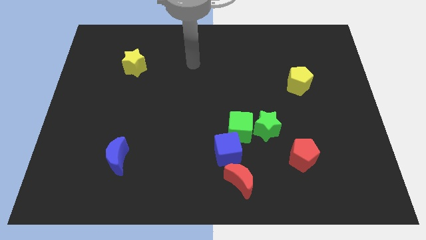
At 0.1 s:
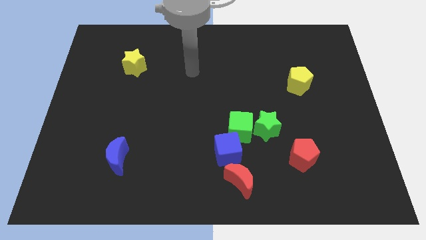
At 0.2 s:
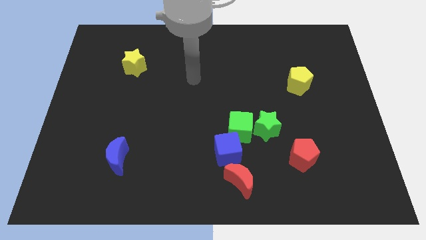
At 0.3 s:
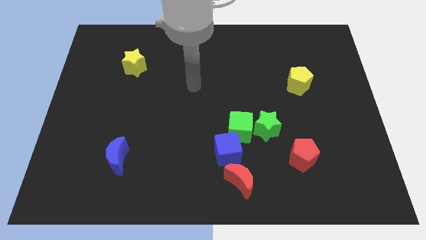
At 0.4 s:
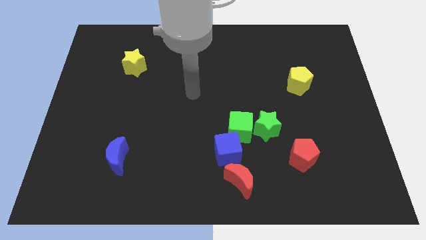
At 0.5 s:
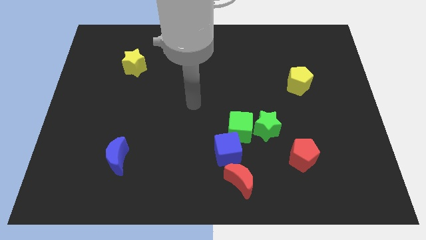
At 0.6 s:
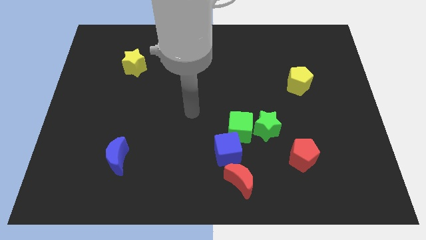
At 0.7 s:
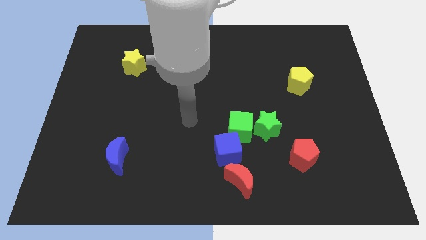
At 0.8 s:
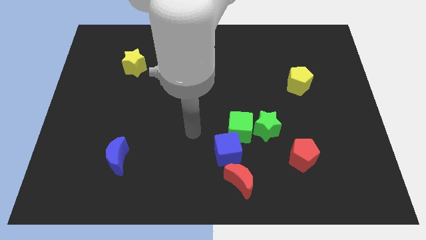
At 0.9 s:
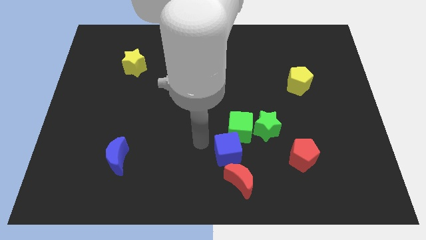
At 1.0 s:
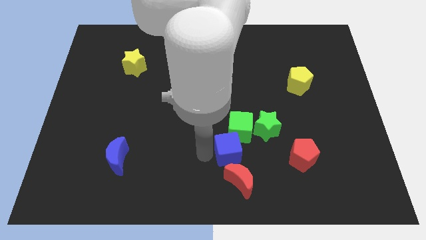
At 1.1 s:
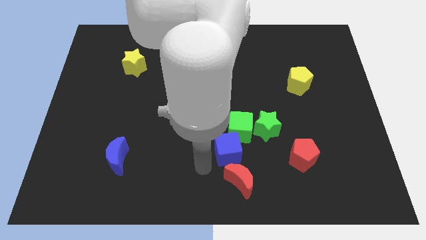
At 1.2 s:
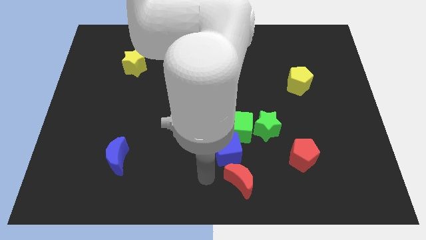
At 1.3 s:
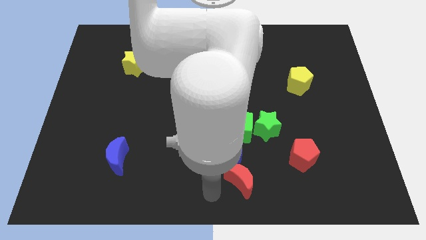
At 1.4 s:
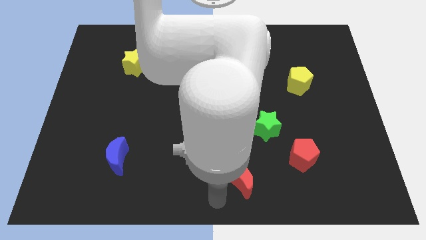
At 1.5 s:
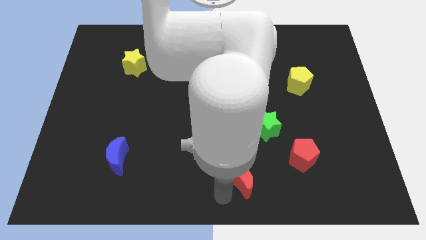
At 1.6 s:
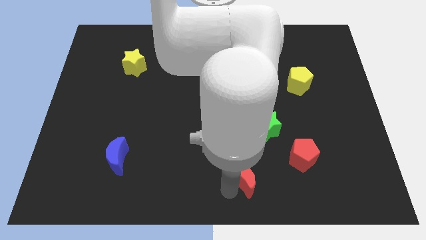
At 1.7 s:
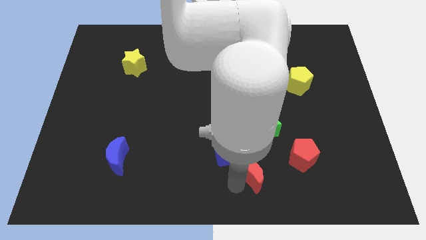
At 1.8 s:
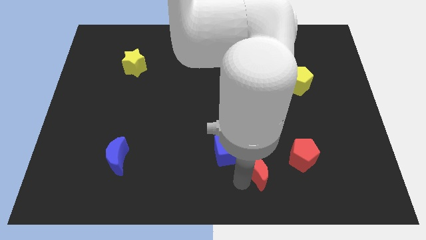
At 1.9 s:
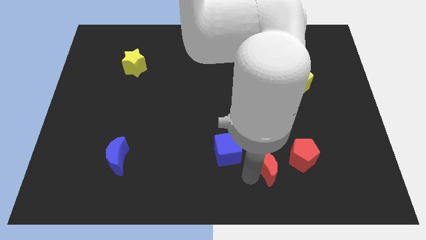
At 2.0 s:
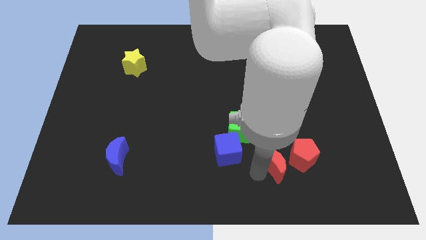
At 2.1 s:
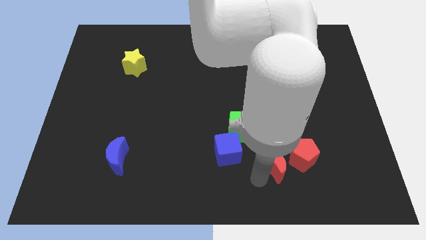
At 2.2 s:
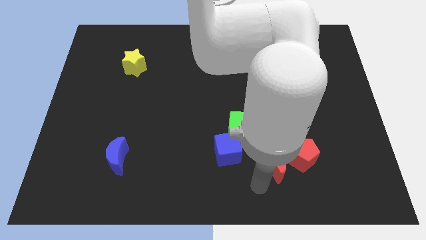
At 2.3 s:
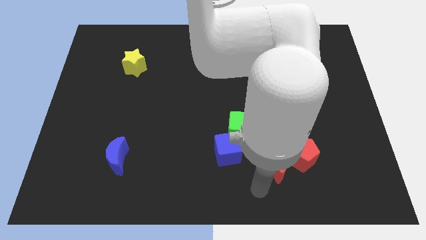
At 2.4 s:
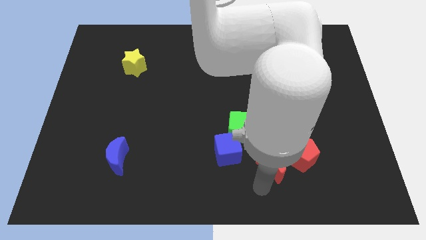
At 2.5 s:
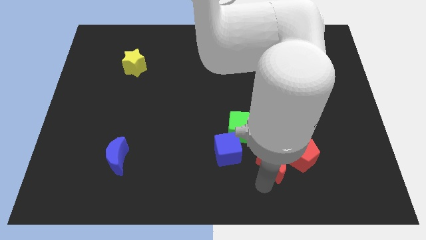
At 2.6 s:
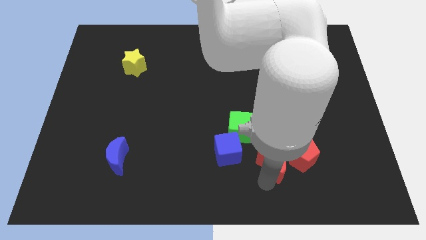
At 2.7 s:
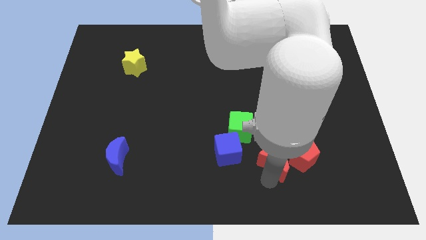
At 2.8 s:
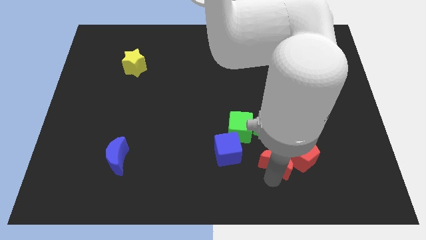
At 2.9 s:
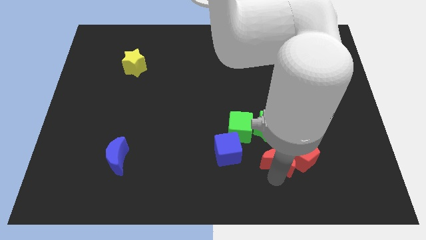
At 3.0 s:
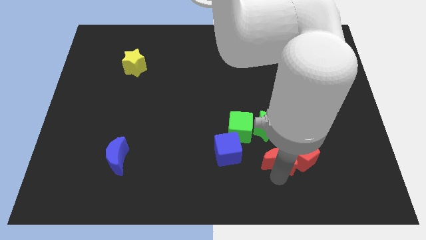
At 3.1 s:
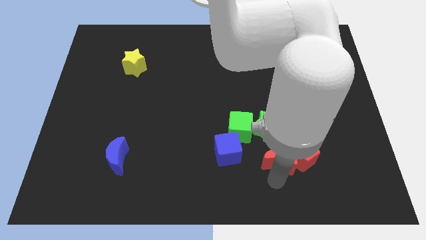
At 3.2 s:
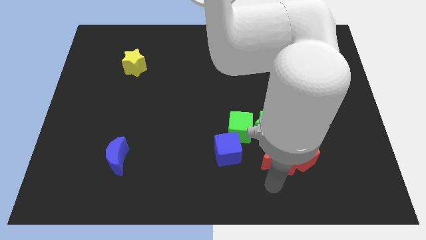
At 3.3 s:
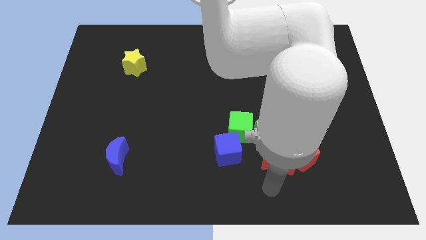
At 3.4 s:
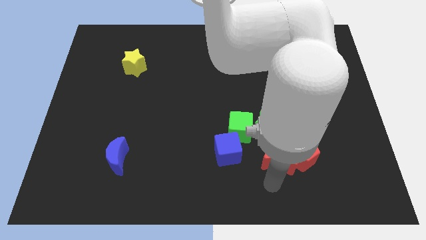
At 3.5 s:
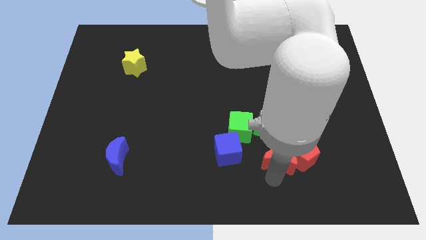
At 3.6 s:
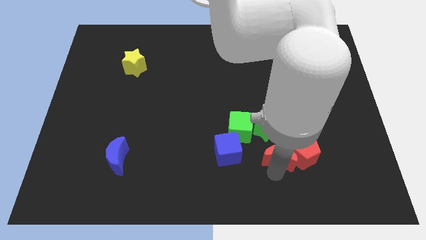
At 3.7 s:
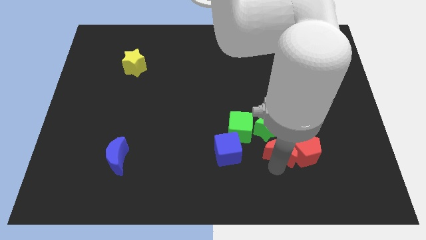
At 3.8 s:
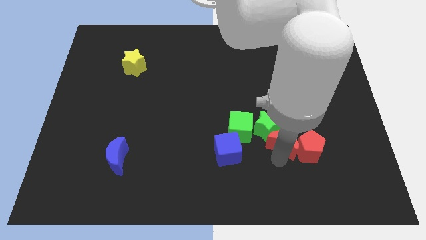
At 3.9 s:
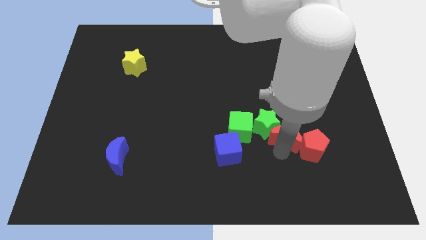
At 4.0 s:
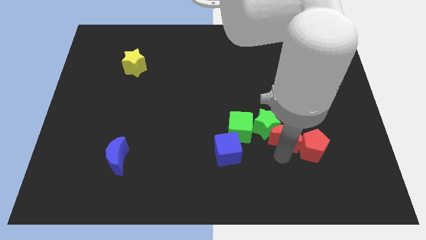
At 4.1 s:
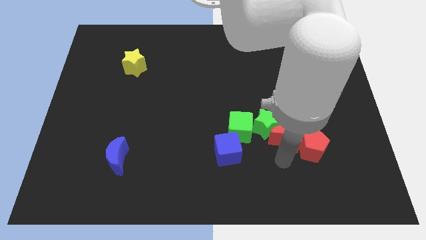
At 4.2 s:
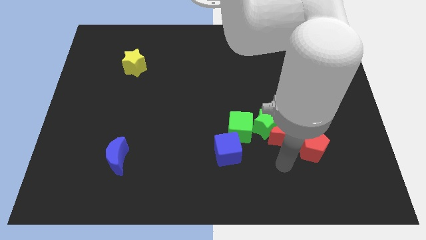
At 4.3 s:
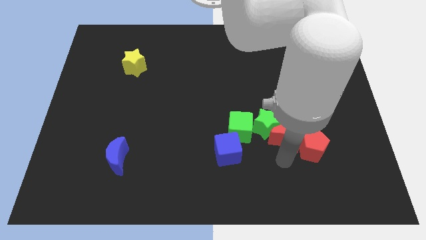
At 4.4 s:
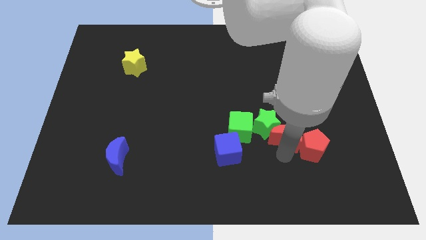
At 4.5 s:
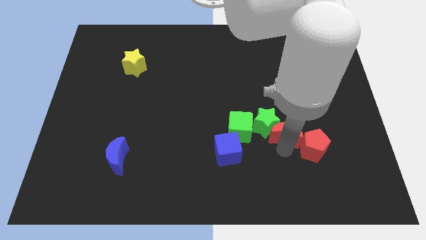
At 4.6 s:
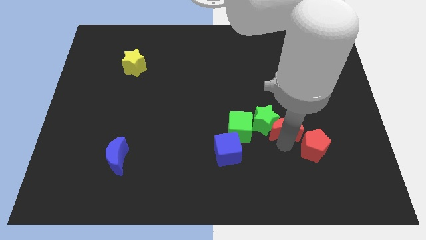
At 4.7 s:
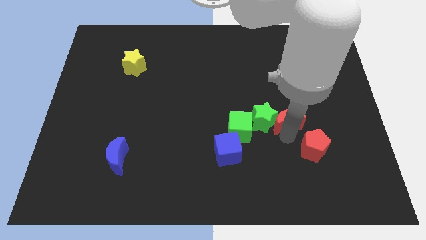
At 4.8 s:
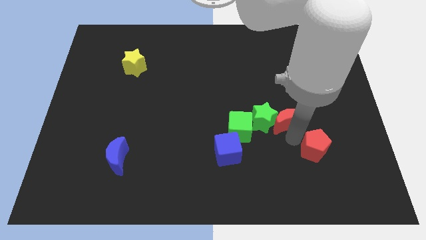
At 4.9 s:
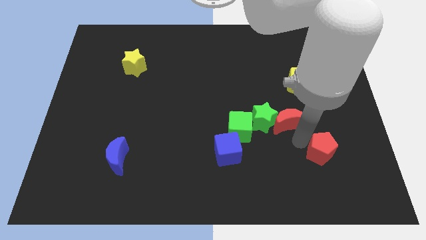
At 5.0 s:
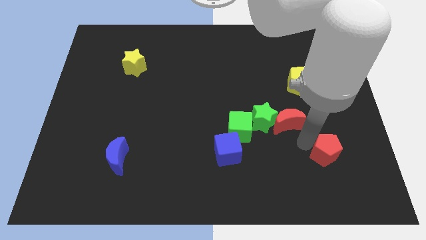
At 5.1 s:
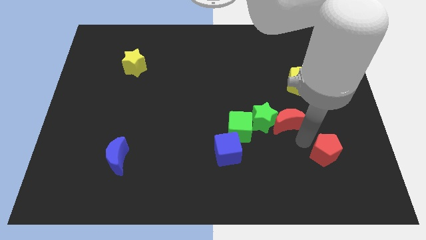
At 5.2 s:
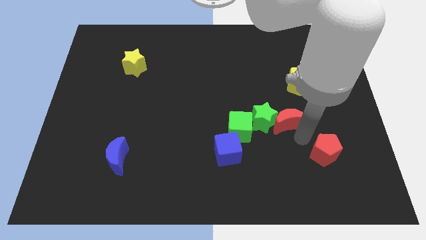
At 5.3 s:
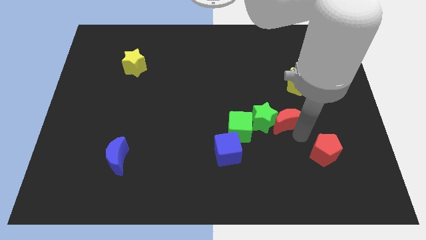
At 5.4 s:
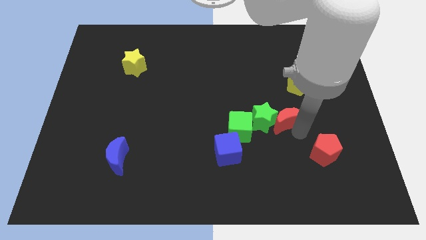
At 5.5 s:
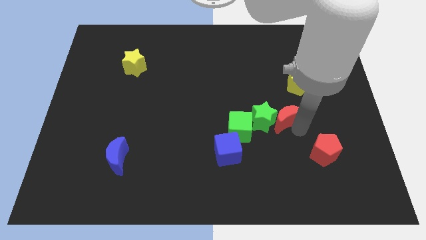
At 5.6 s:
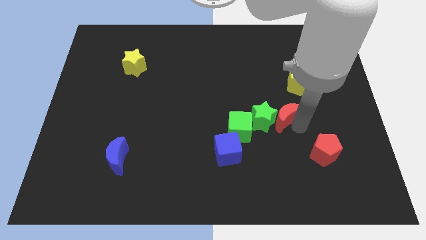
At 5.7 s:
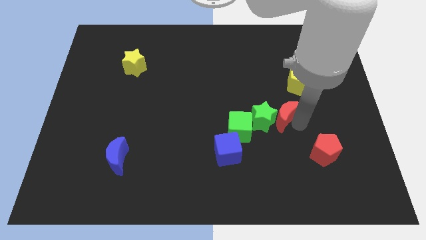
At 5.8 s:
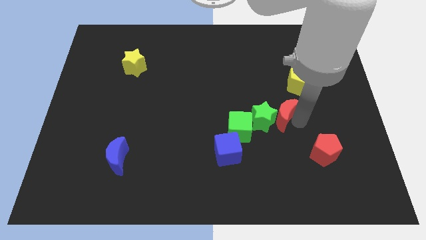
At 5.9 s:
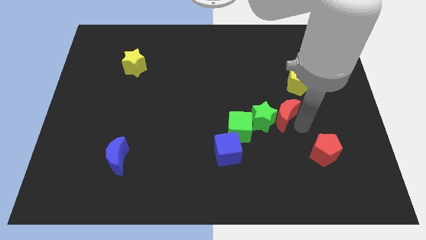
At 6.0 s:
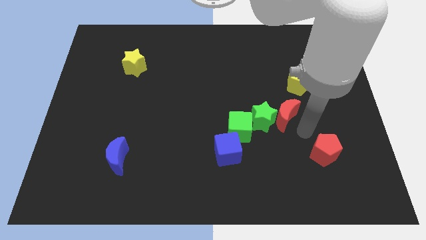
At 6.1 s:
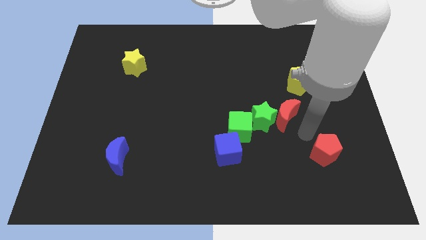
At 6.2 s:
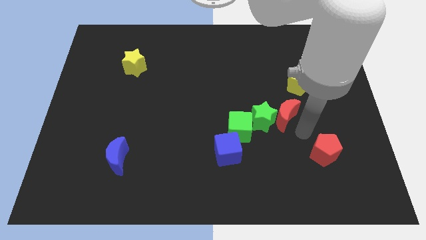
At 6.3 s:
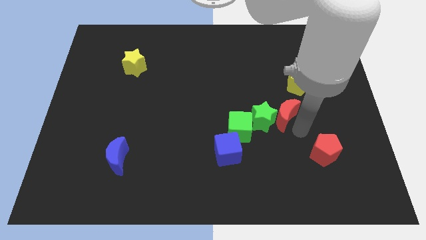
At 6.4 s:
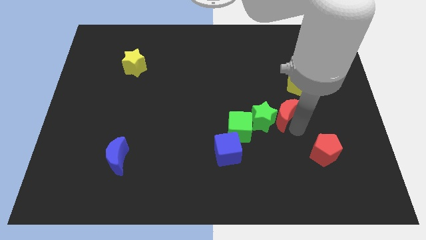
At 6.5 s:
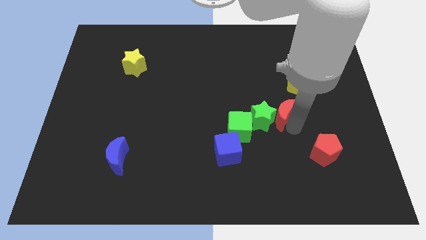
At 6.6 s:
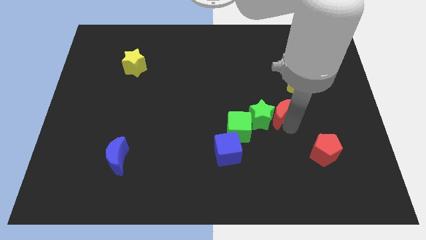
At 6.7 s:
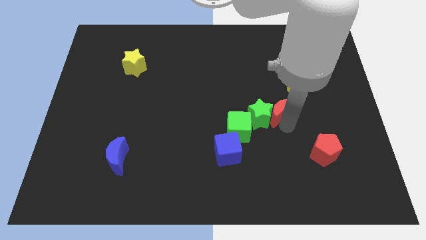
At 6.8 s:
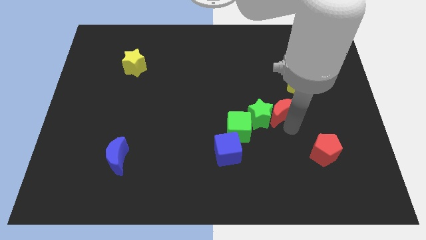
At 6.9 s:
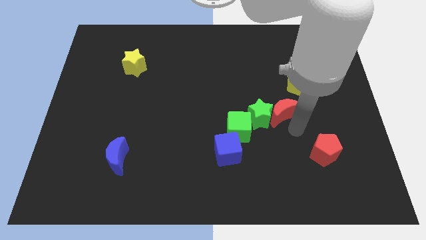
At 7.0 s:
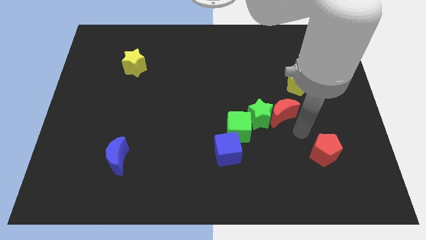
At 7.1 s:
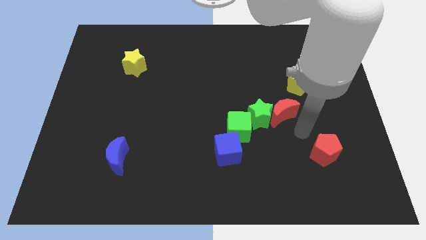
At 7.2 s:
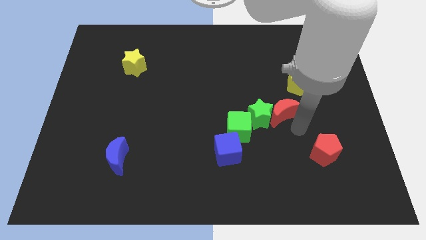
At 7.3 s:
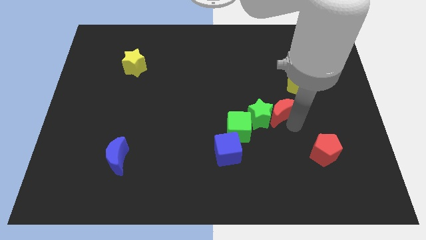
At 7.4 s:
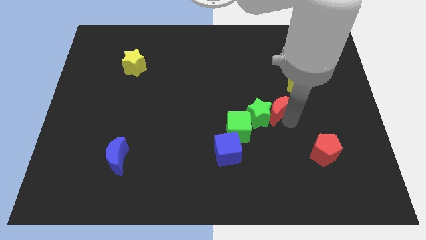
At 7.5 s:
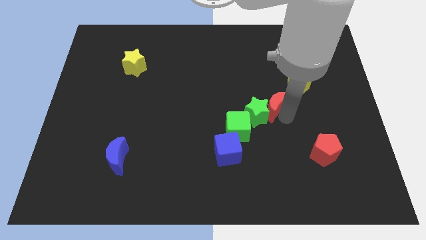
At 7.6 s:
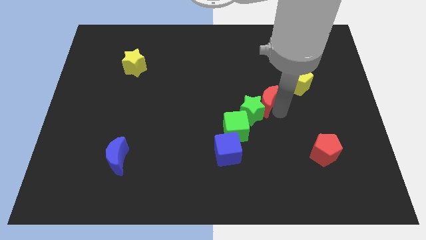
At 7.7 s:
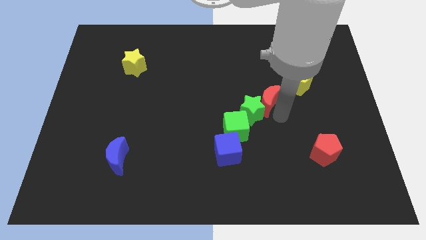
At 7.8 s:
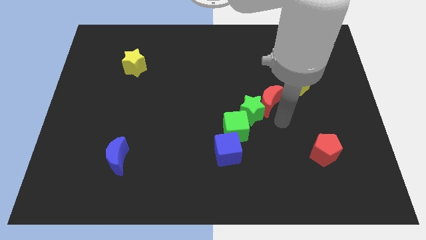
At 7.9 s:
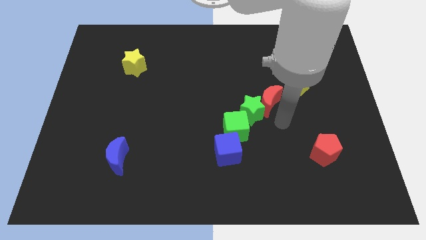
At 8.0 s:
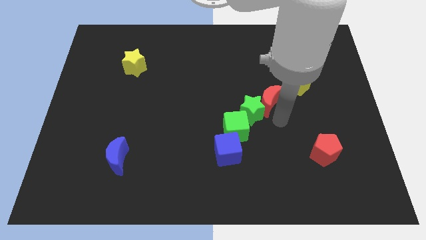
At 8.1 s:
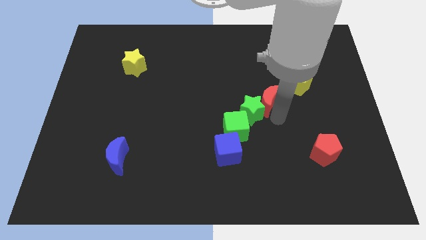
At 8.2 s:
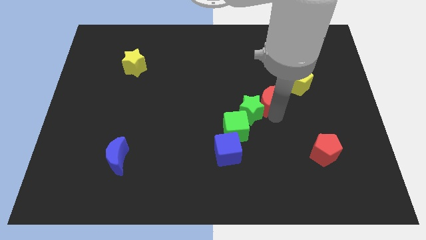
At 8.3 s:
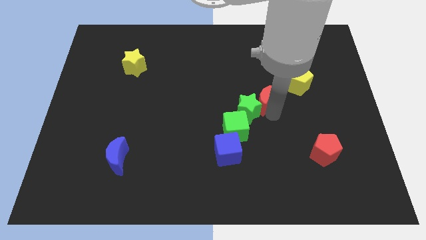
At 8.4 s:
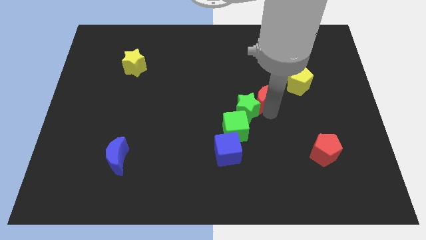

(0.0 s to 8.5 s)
slide the red moon to the left side of the yellow pentagon
